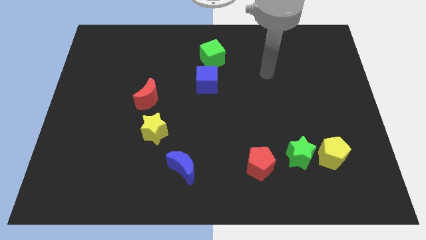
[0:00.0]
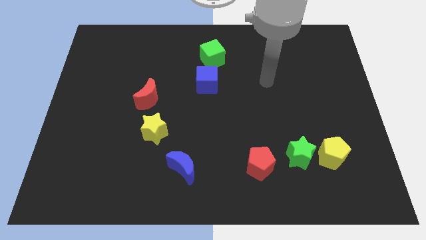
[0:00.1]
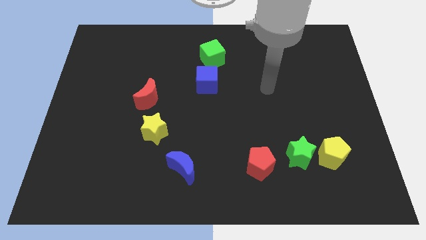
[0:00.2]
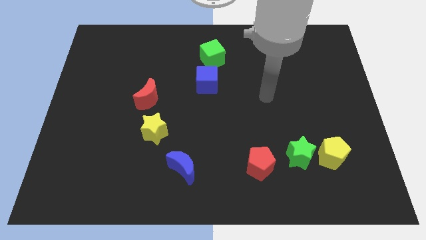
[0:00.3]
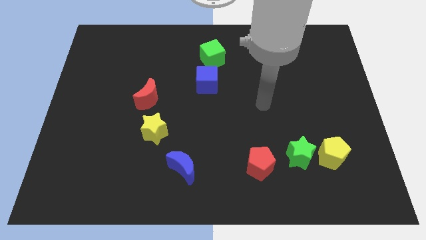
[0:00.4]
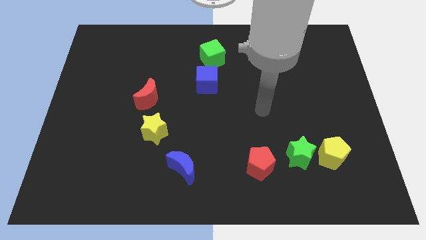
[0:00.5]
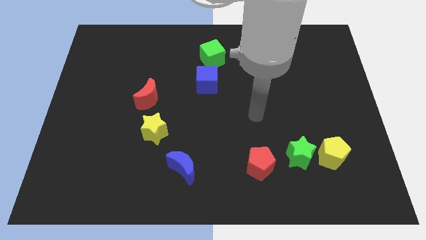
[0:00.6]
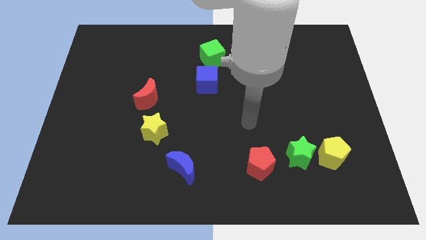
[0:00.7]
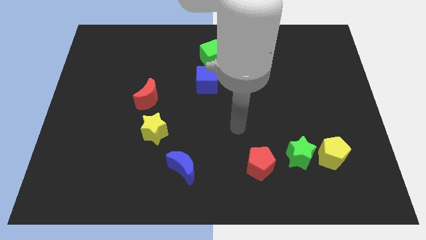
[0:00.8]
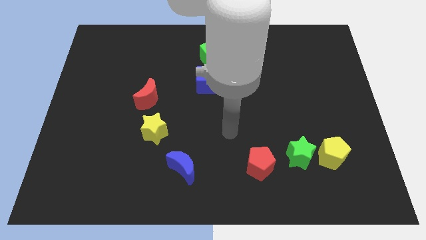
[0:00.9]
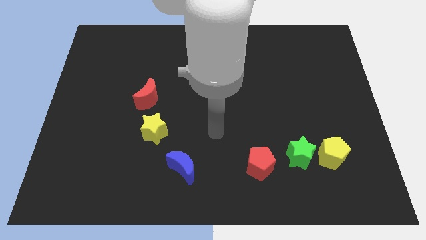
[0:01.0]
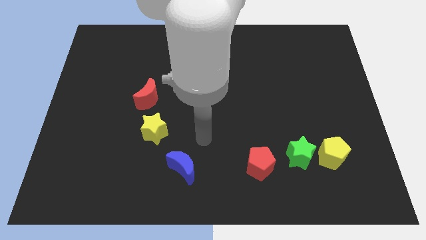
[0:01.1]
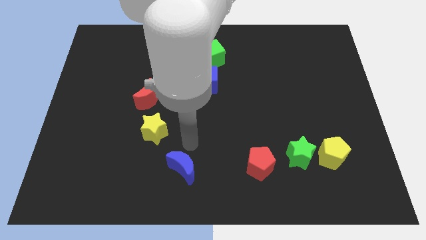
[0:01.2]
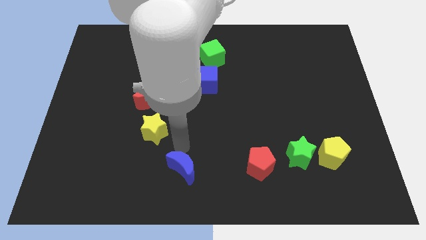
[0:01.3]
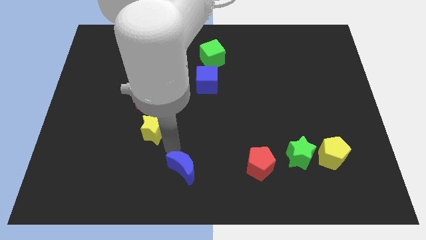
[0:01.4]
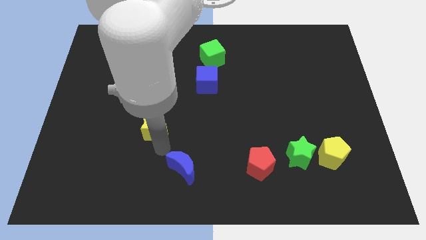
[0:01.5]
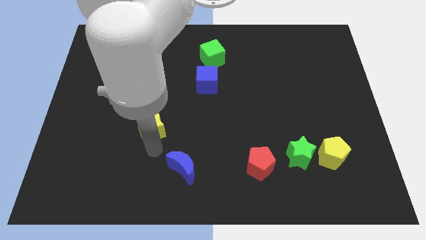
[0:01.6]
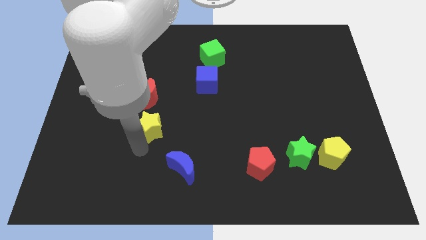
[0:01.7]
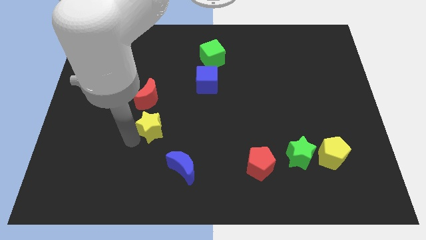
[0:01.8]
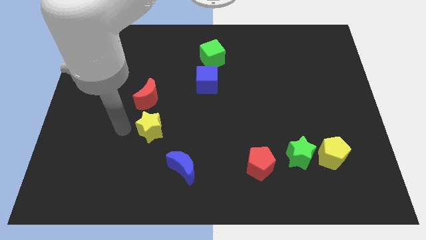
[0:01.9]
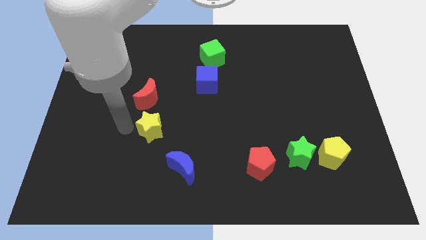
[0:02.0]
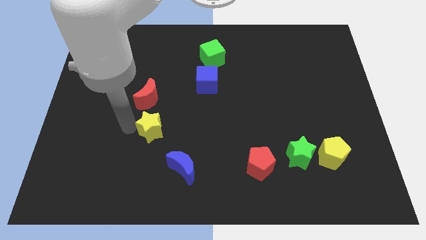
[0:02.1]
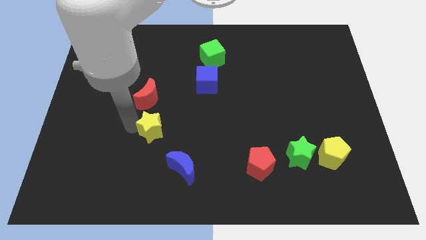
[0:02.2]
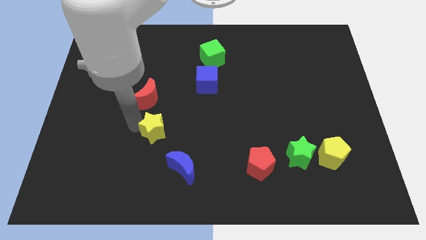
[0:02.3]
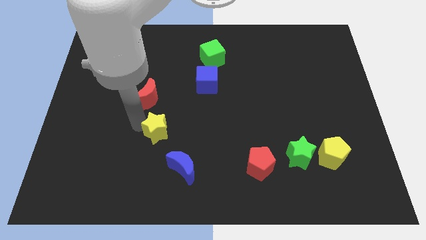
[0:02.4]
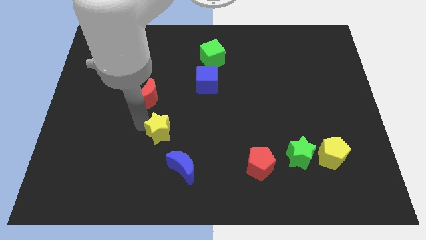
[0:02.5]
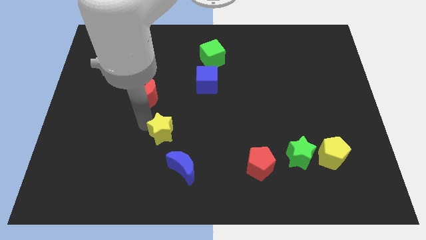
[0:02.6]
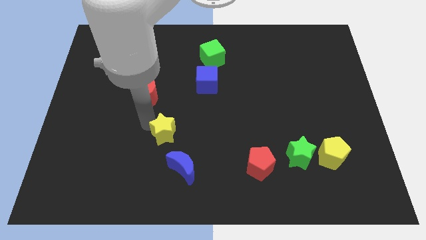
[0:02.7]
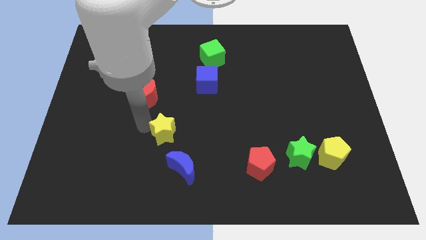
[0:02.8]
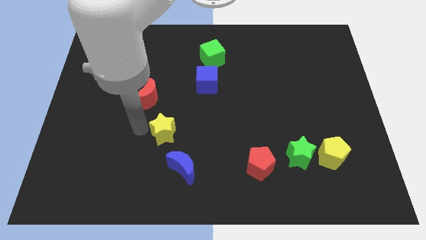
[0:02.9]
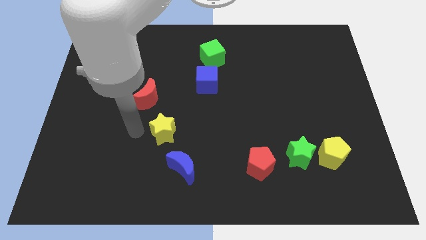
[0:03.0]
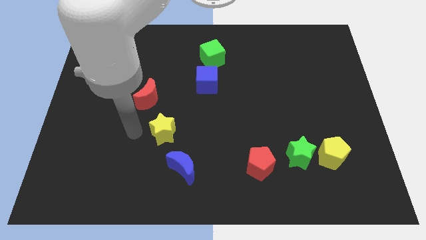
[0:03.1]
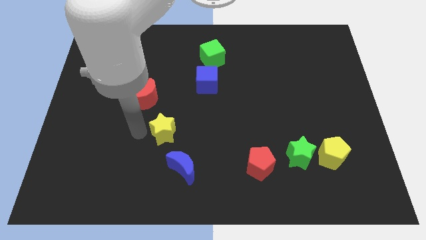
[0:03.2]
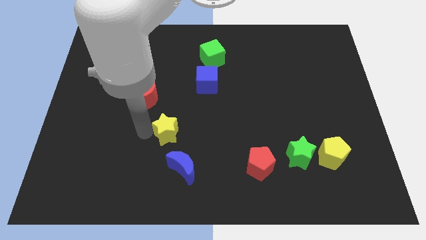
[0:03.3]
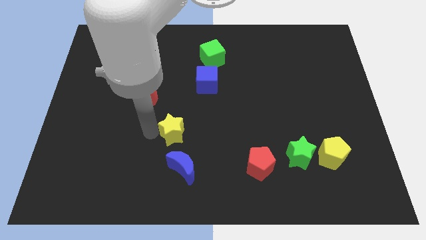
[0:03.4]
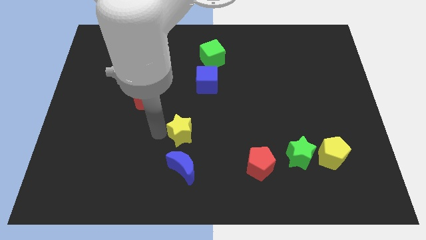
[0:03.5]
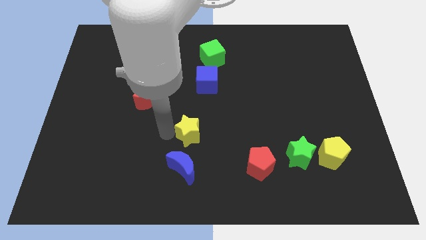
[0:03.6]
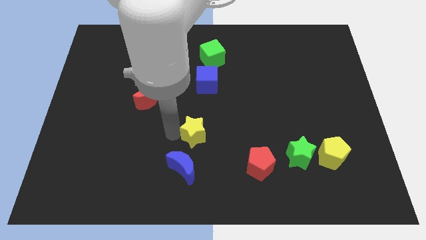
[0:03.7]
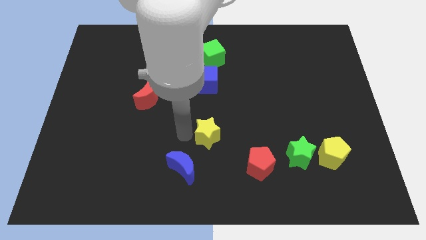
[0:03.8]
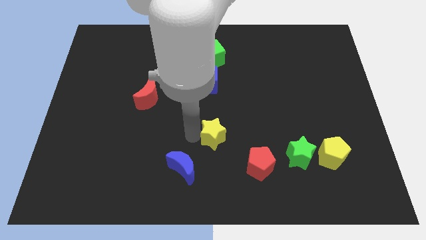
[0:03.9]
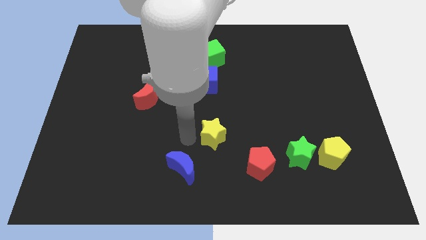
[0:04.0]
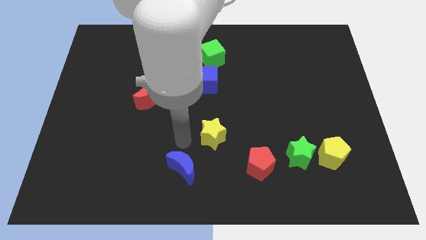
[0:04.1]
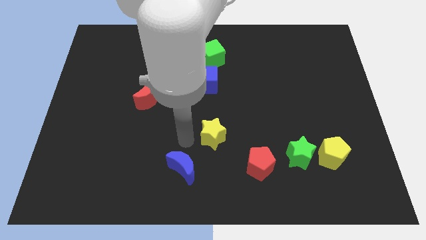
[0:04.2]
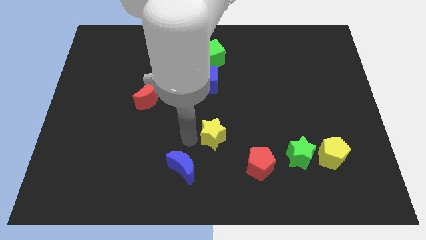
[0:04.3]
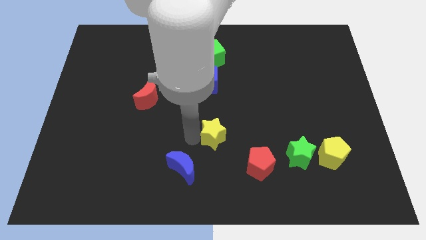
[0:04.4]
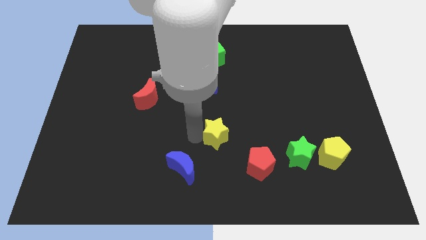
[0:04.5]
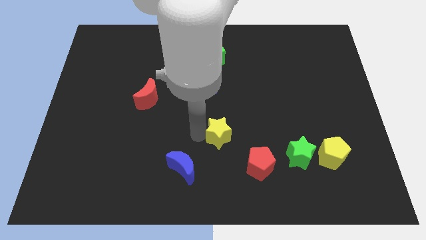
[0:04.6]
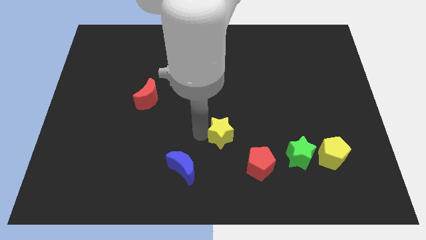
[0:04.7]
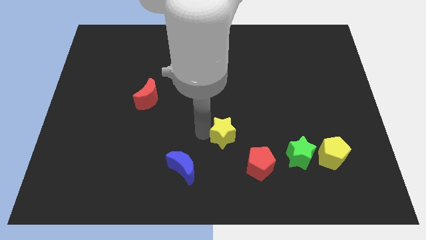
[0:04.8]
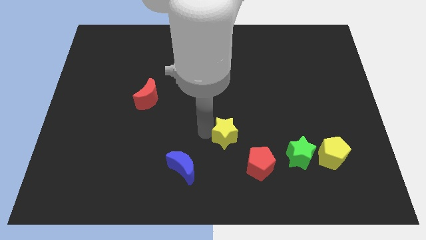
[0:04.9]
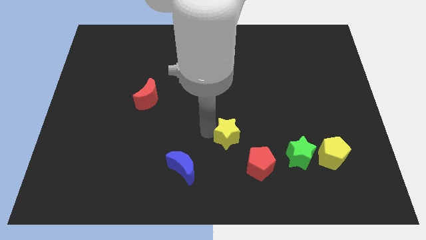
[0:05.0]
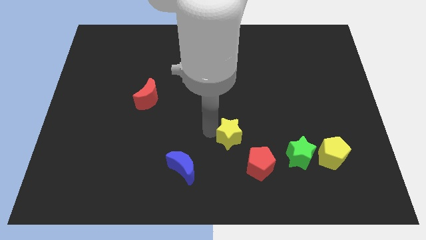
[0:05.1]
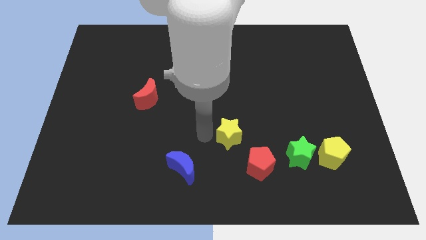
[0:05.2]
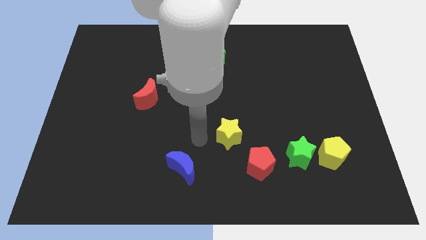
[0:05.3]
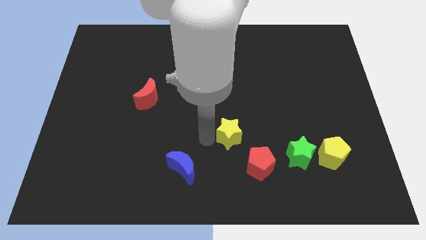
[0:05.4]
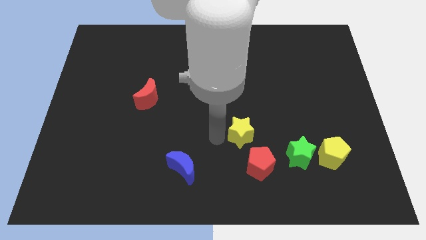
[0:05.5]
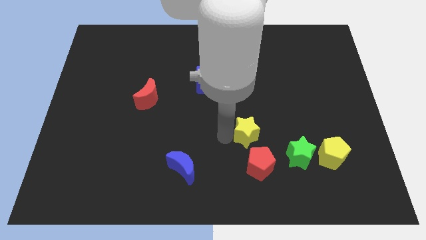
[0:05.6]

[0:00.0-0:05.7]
move the yellow star right

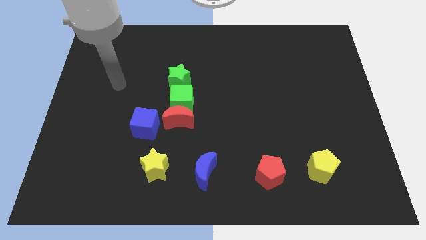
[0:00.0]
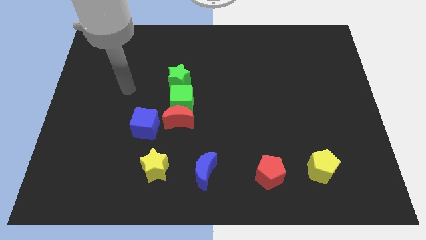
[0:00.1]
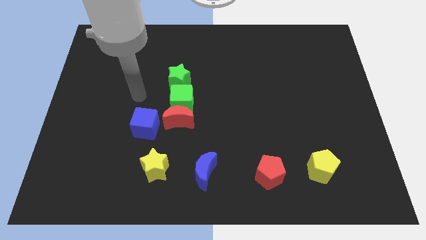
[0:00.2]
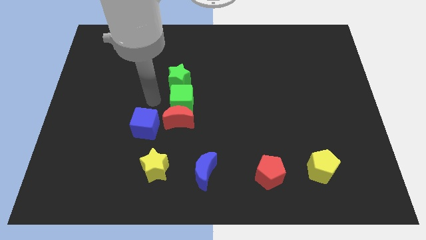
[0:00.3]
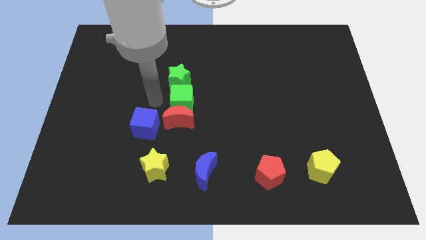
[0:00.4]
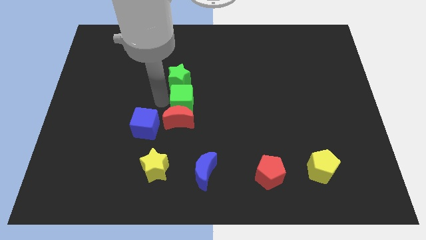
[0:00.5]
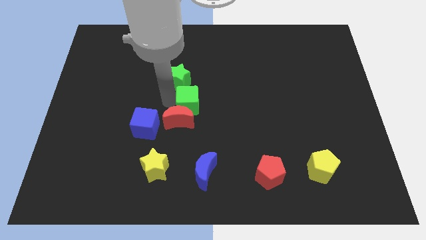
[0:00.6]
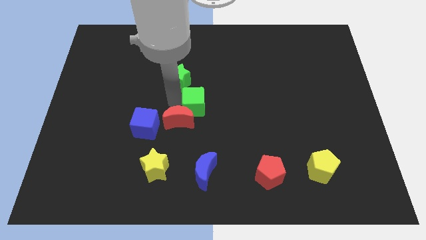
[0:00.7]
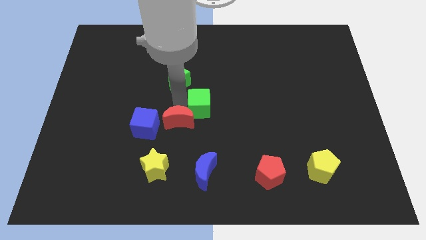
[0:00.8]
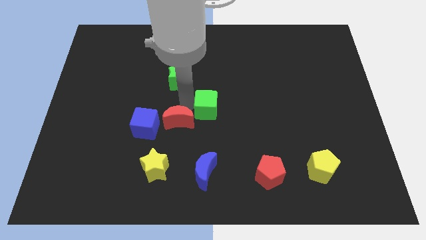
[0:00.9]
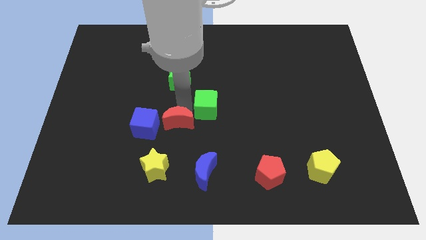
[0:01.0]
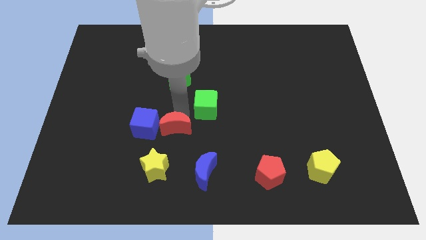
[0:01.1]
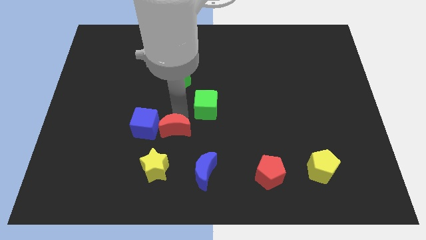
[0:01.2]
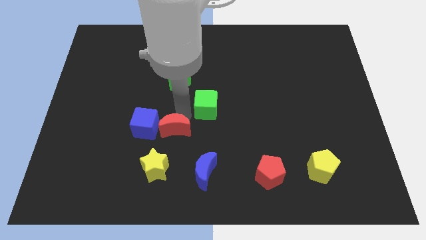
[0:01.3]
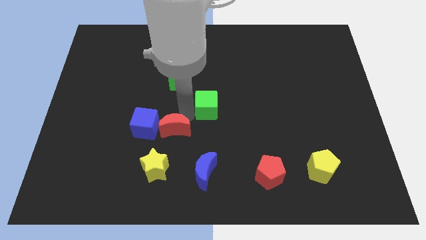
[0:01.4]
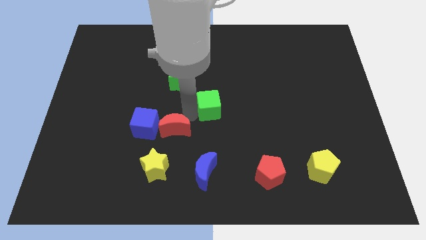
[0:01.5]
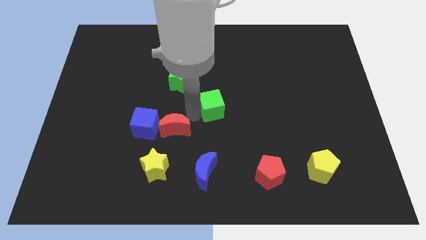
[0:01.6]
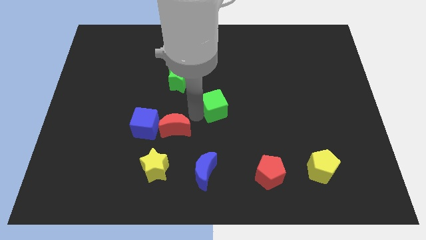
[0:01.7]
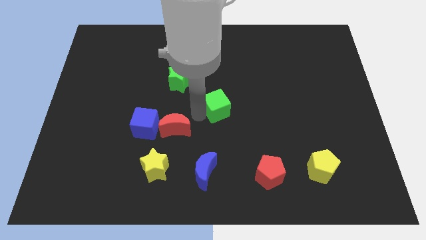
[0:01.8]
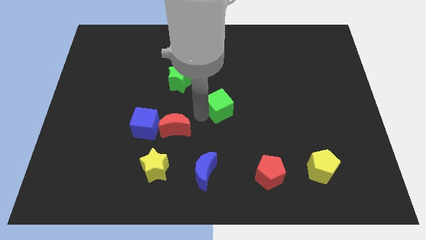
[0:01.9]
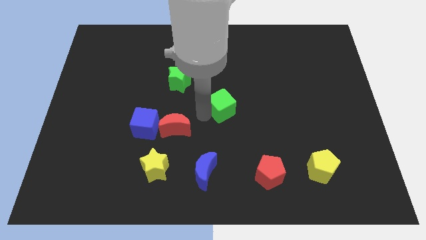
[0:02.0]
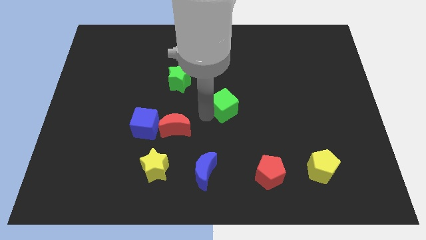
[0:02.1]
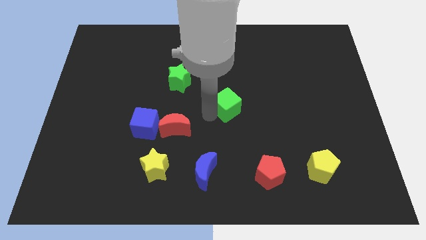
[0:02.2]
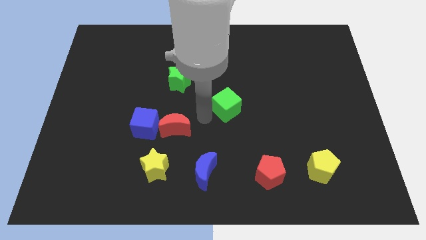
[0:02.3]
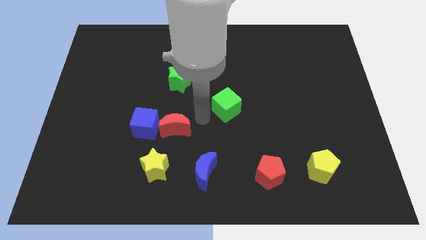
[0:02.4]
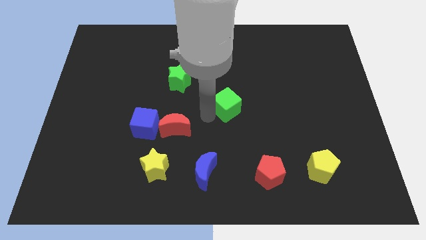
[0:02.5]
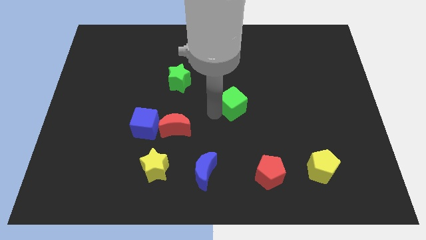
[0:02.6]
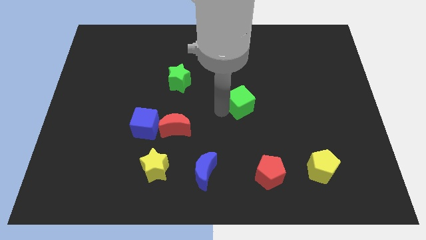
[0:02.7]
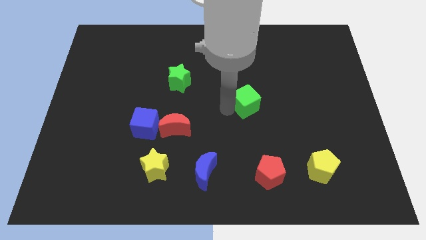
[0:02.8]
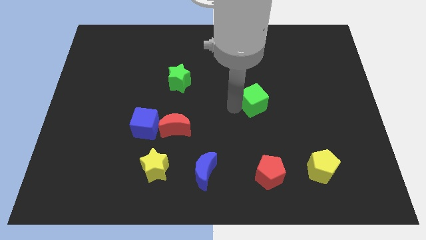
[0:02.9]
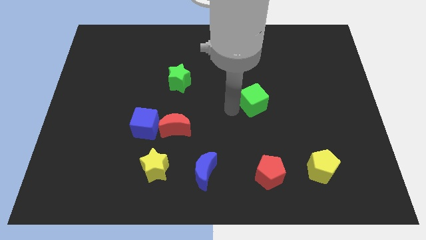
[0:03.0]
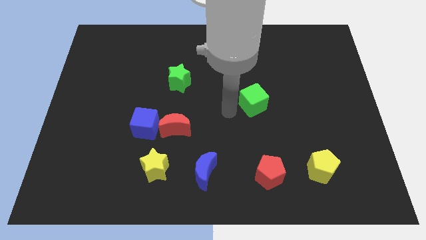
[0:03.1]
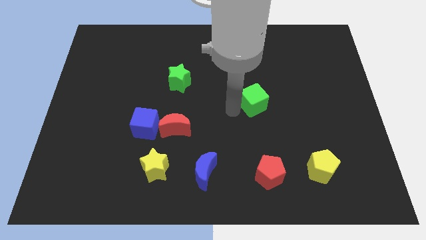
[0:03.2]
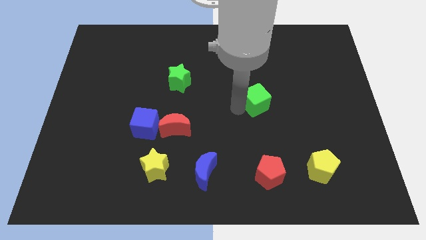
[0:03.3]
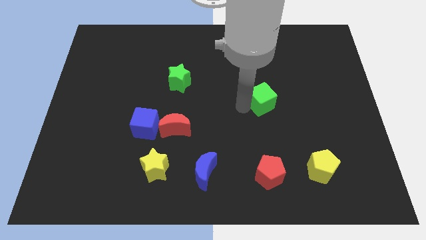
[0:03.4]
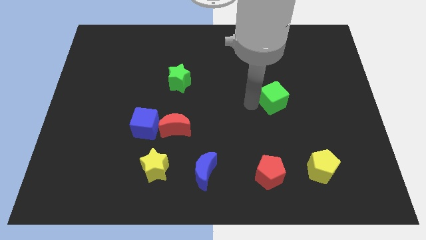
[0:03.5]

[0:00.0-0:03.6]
slide the green cube to the right
